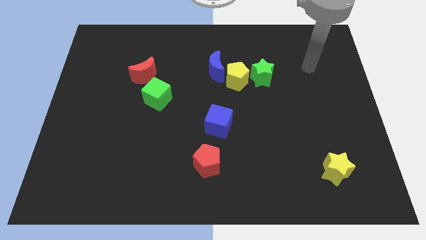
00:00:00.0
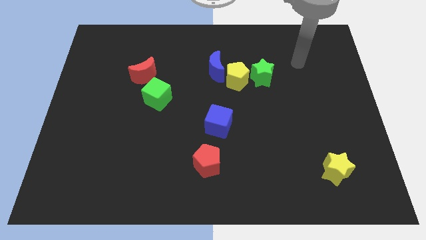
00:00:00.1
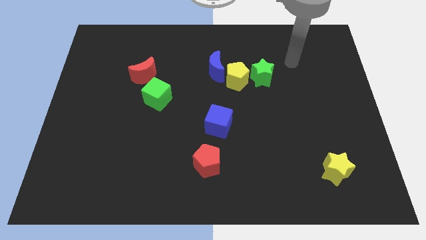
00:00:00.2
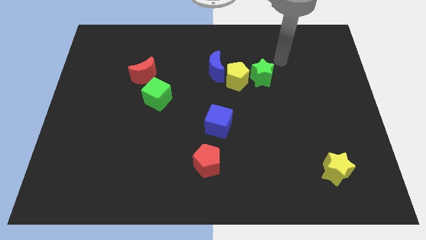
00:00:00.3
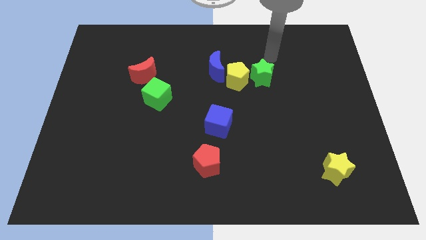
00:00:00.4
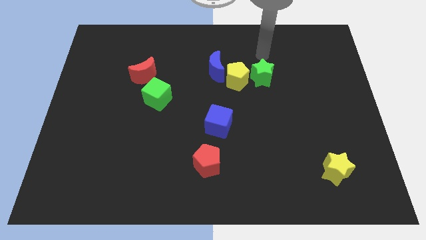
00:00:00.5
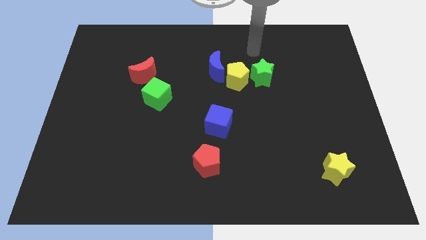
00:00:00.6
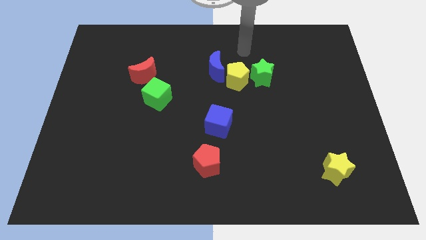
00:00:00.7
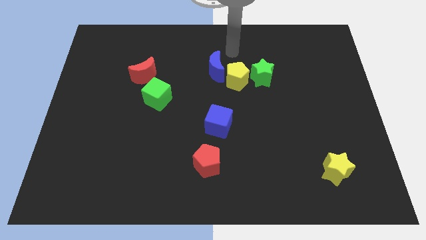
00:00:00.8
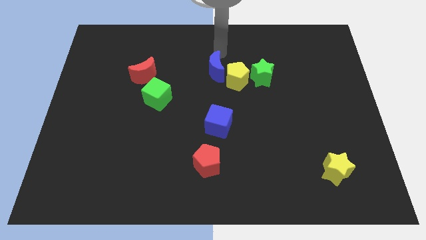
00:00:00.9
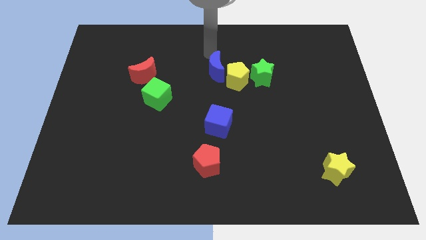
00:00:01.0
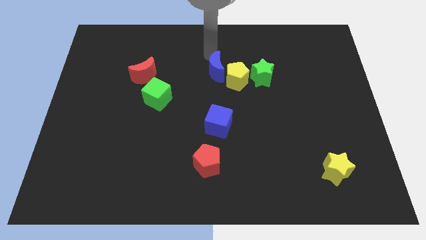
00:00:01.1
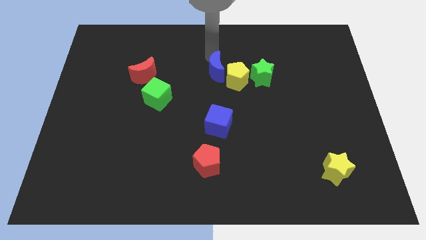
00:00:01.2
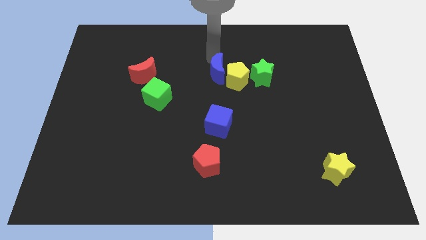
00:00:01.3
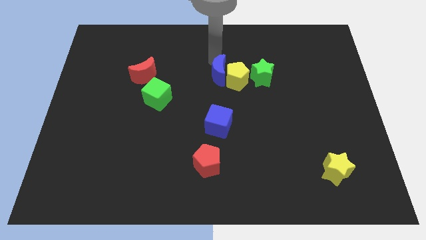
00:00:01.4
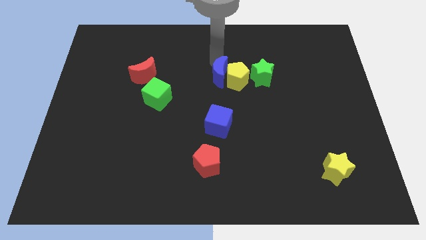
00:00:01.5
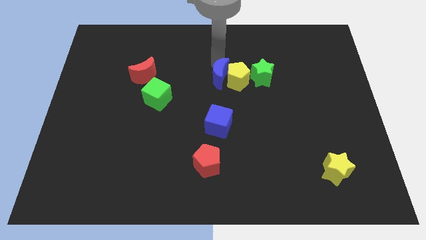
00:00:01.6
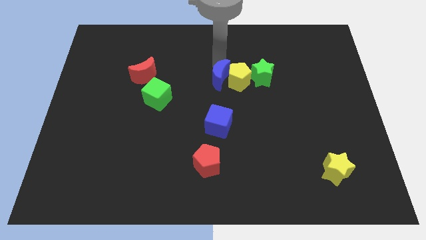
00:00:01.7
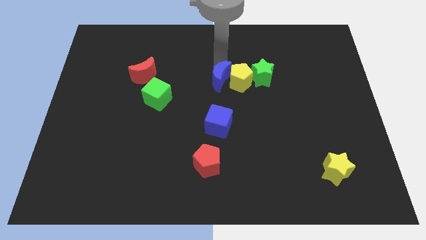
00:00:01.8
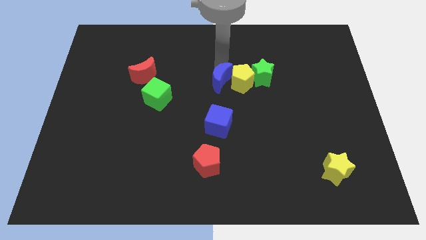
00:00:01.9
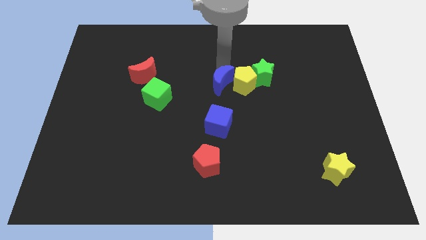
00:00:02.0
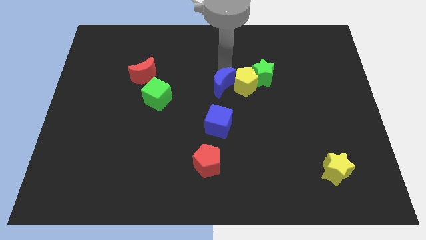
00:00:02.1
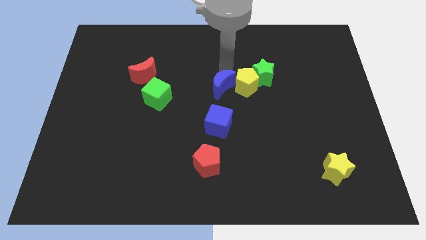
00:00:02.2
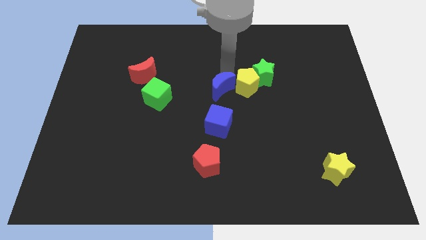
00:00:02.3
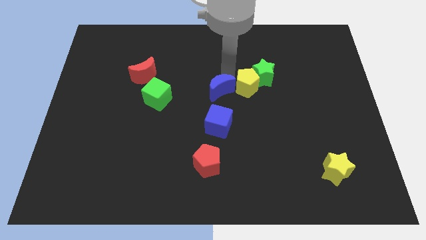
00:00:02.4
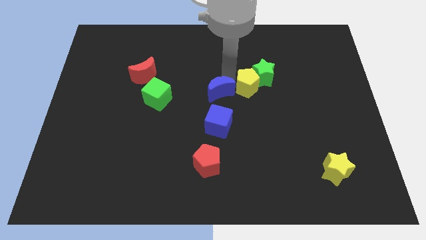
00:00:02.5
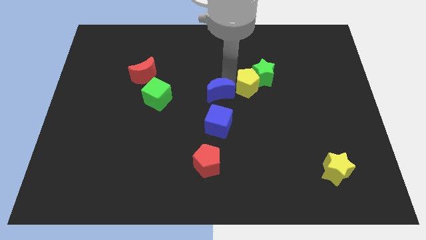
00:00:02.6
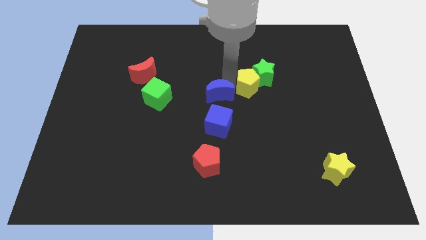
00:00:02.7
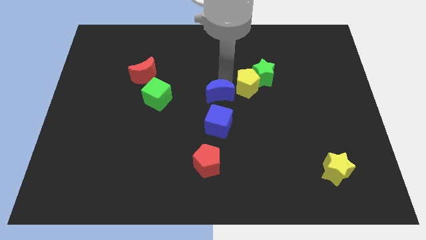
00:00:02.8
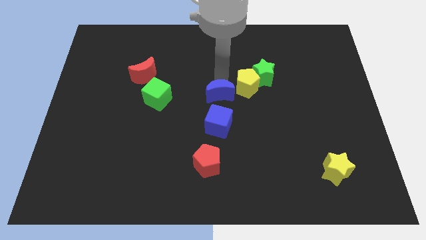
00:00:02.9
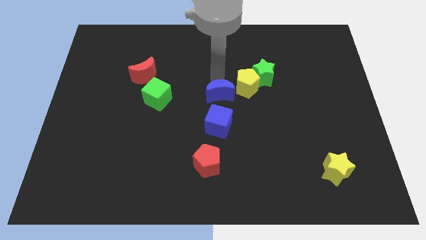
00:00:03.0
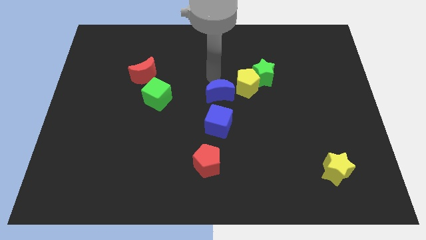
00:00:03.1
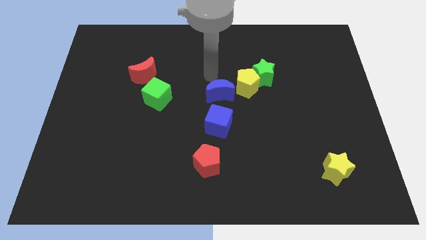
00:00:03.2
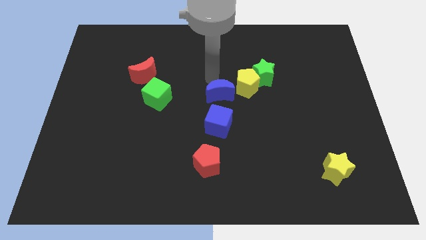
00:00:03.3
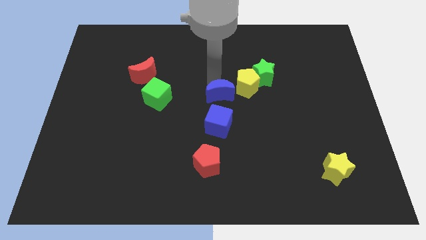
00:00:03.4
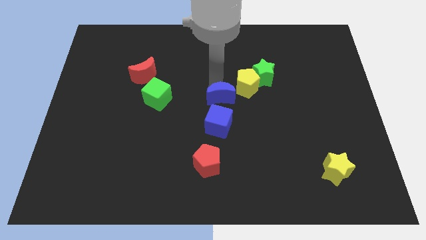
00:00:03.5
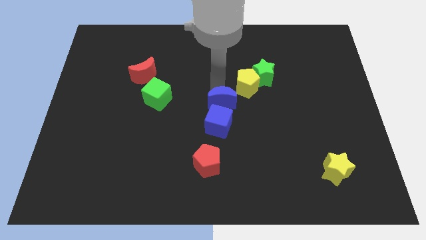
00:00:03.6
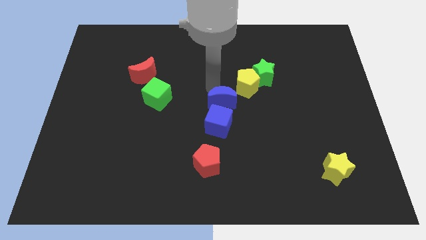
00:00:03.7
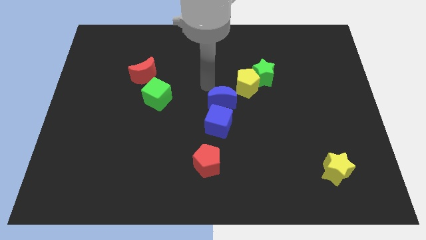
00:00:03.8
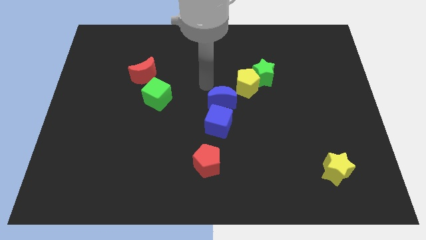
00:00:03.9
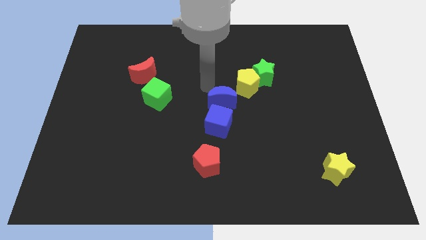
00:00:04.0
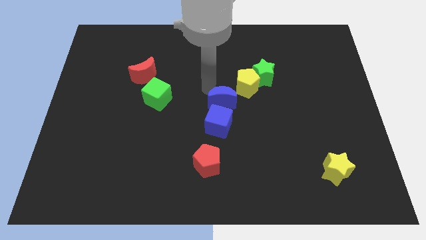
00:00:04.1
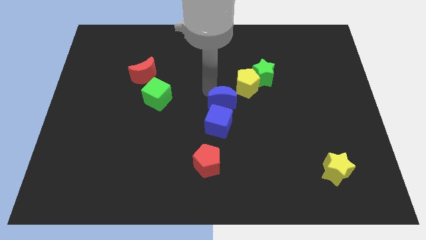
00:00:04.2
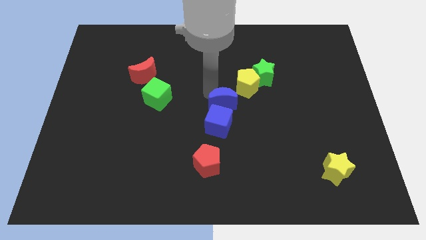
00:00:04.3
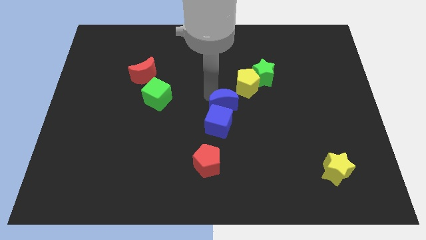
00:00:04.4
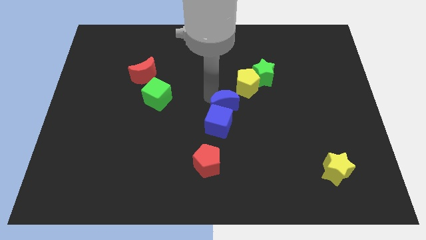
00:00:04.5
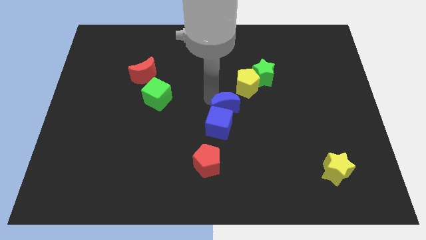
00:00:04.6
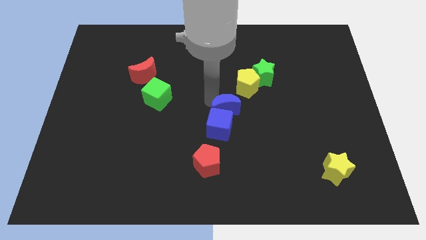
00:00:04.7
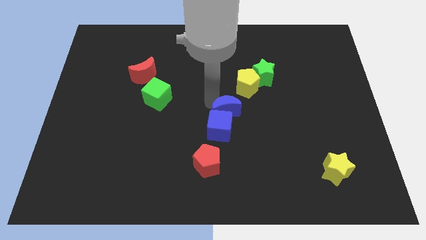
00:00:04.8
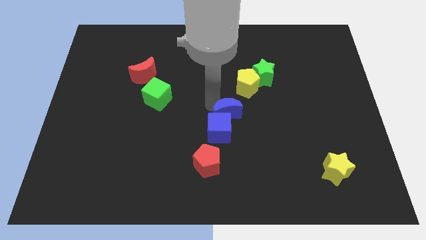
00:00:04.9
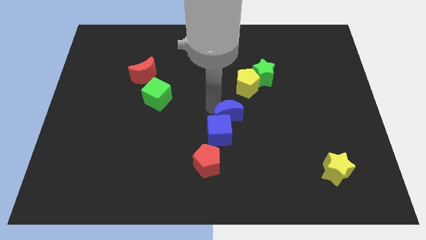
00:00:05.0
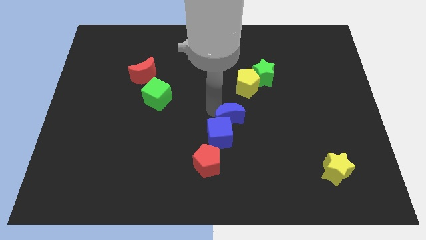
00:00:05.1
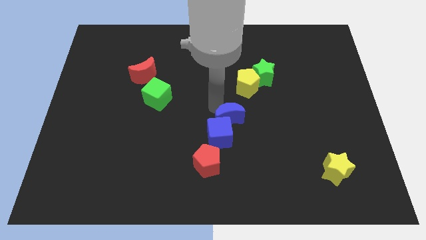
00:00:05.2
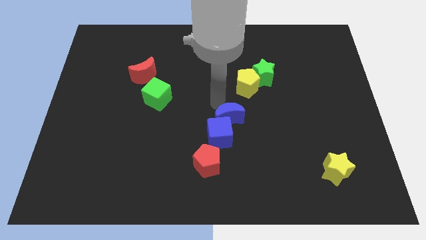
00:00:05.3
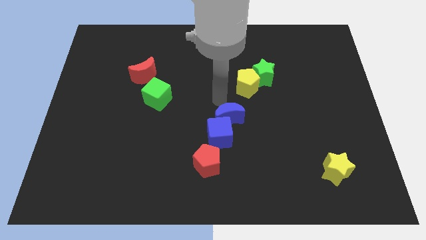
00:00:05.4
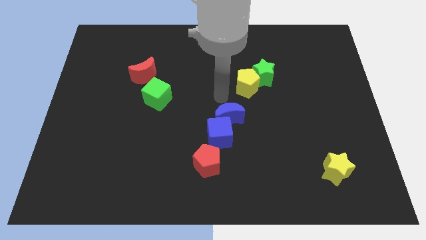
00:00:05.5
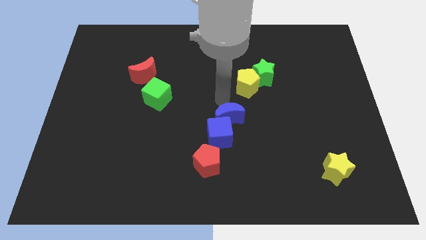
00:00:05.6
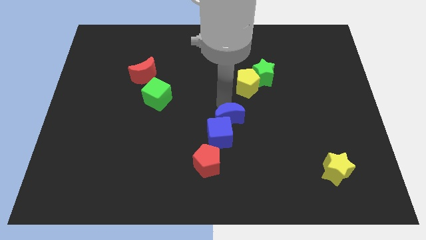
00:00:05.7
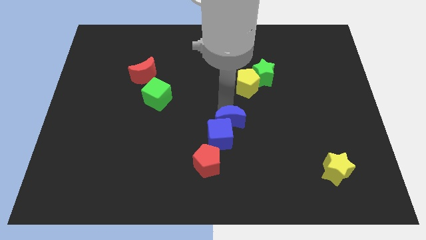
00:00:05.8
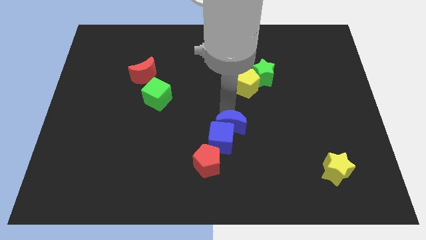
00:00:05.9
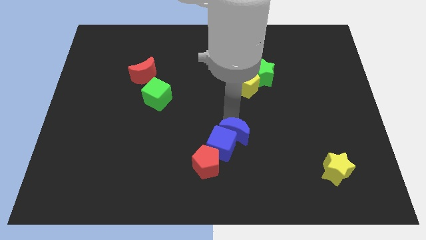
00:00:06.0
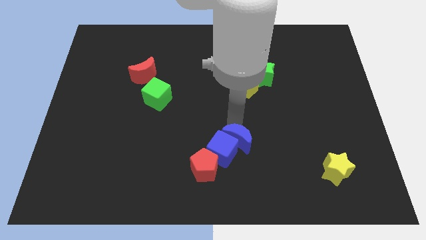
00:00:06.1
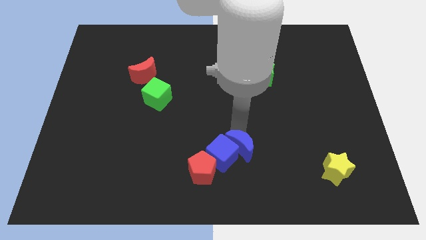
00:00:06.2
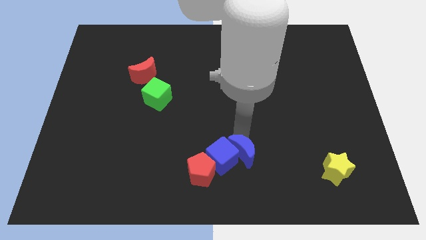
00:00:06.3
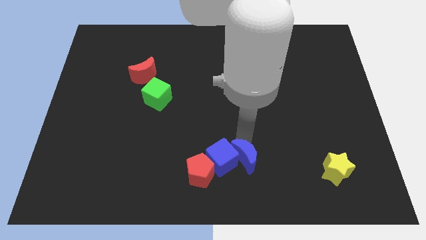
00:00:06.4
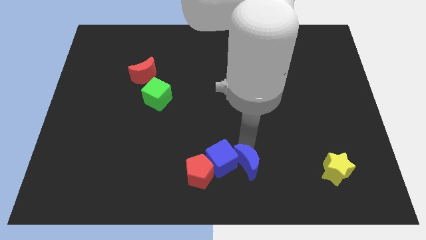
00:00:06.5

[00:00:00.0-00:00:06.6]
move the blue moon to the bottom
